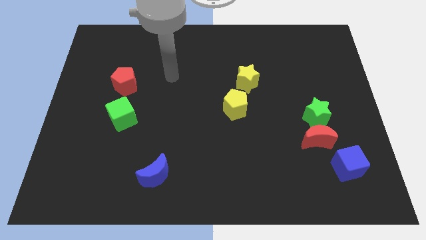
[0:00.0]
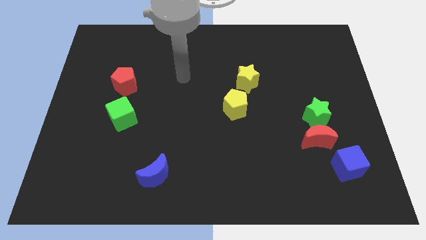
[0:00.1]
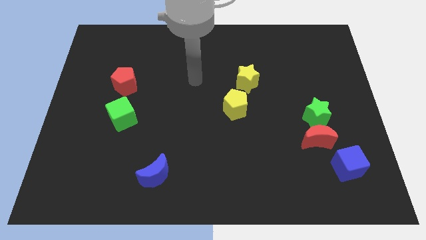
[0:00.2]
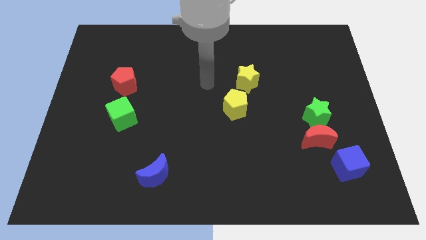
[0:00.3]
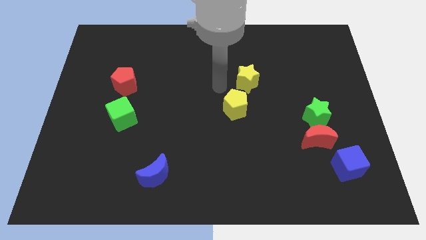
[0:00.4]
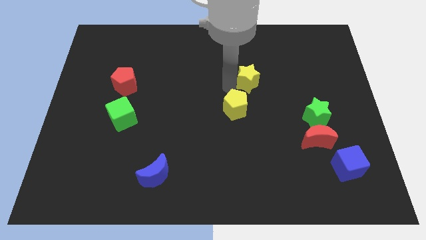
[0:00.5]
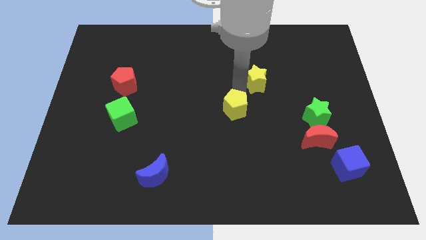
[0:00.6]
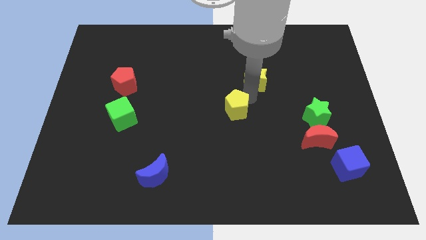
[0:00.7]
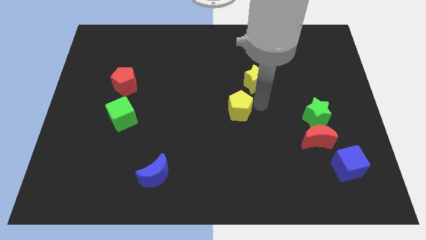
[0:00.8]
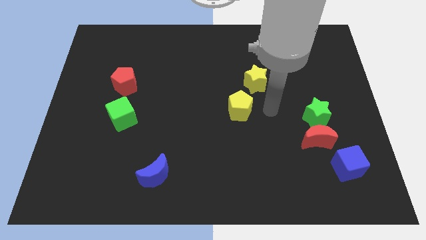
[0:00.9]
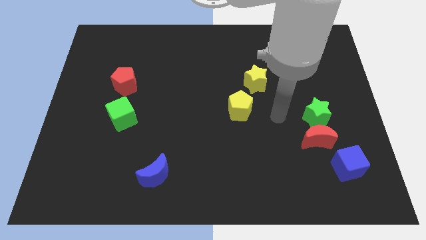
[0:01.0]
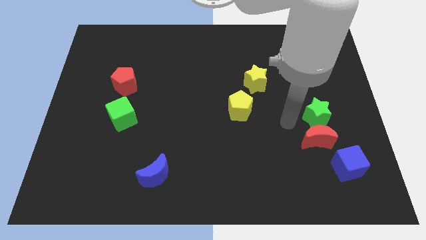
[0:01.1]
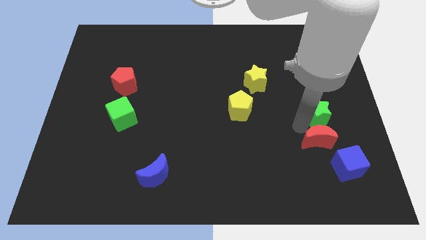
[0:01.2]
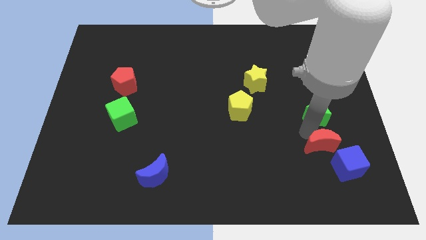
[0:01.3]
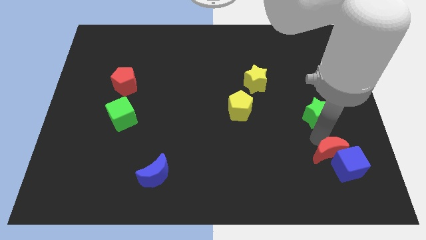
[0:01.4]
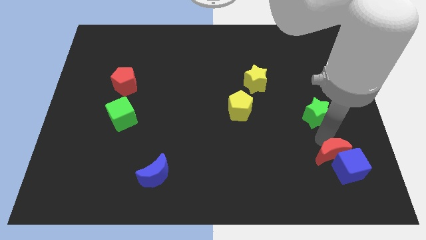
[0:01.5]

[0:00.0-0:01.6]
move the green star away from the red moon

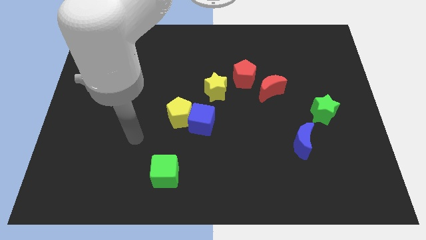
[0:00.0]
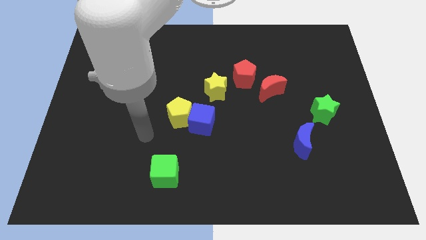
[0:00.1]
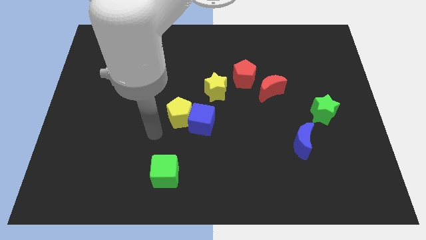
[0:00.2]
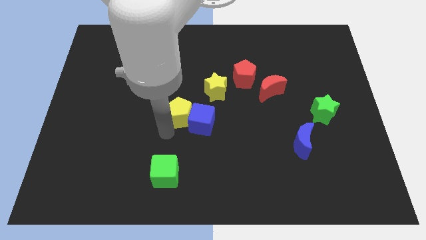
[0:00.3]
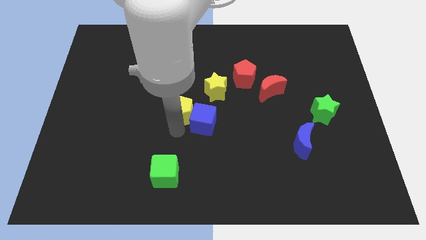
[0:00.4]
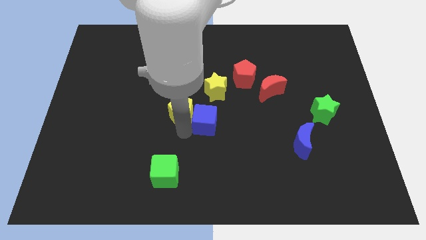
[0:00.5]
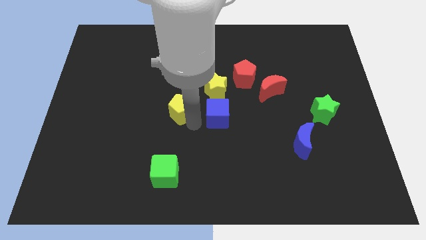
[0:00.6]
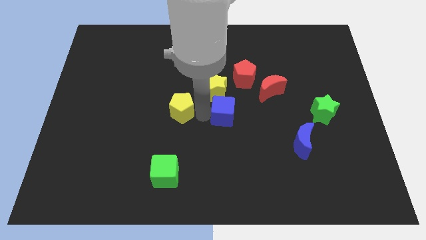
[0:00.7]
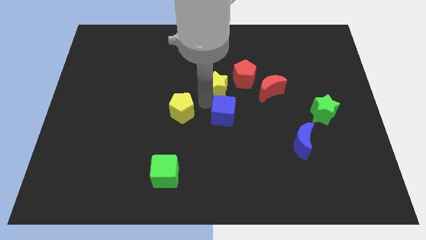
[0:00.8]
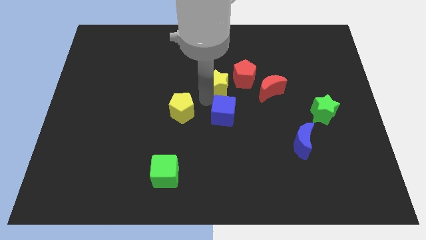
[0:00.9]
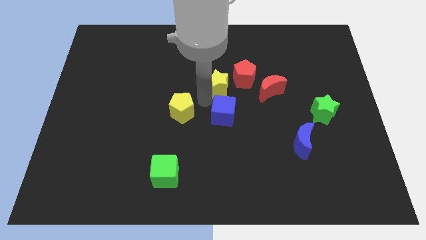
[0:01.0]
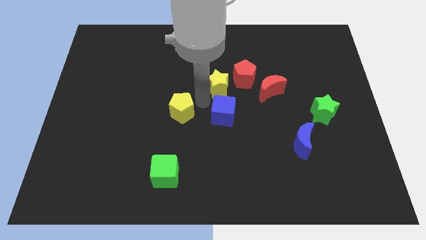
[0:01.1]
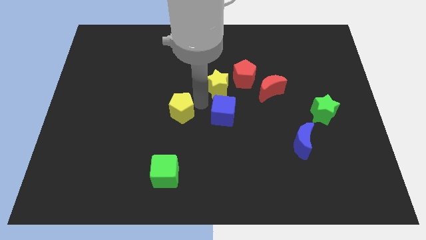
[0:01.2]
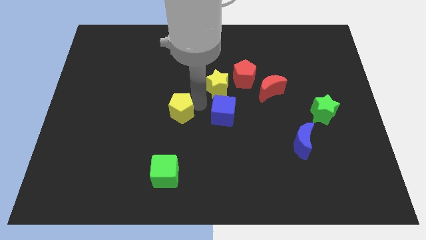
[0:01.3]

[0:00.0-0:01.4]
separate the yellow pentagon from the blue cube

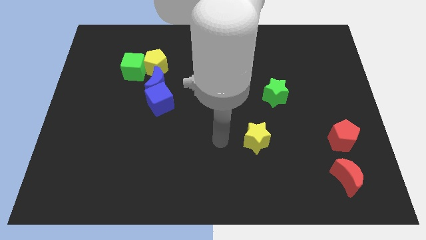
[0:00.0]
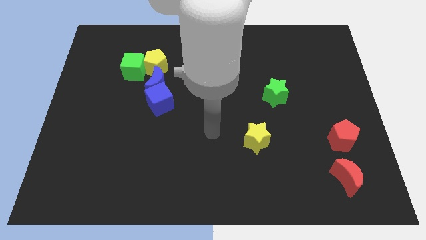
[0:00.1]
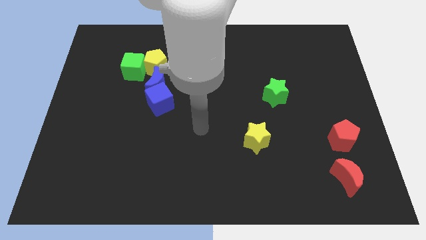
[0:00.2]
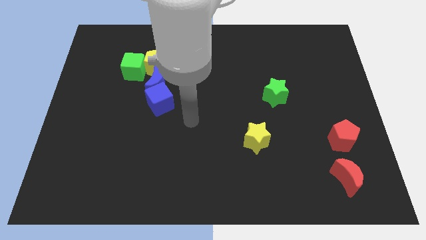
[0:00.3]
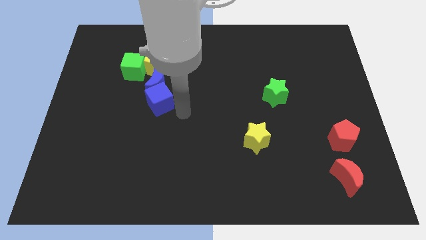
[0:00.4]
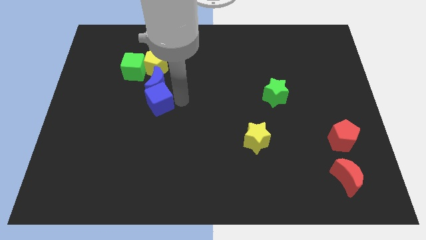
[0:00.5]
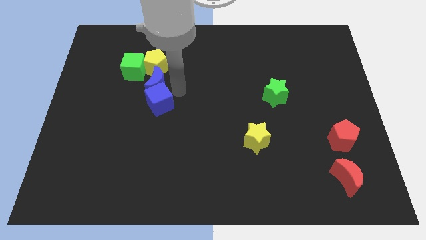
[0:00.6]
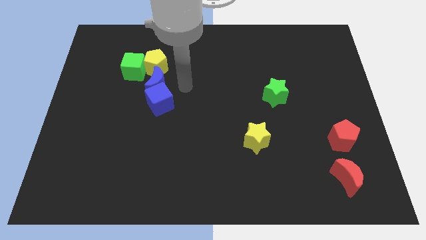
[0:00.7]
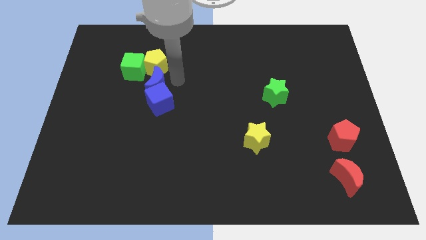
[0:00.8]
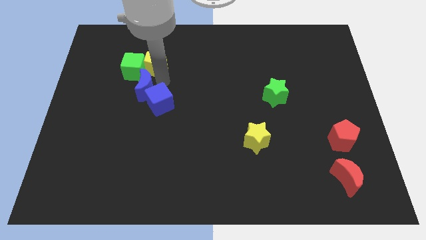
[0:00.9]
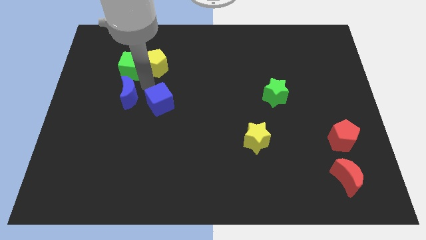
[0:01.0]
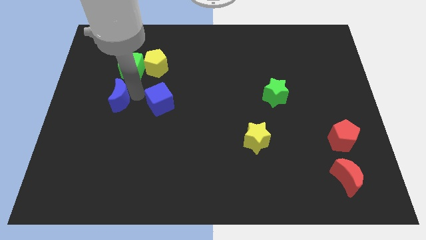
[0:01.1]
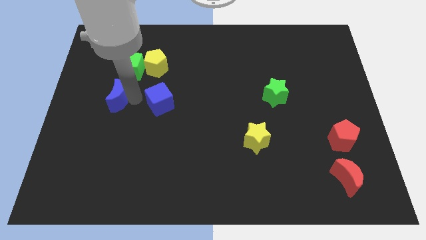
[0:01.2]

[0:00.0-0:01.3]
pull the blue cube apart from the blue moon

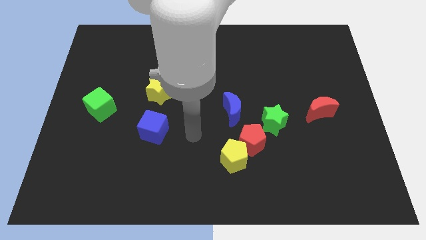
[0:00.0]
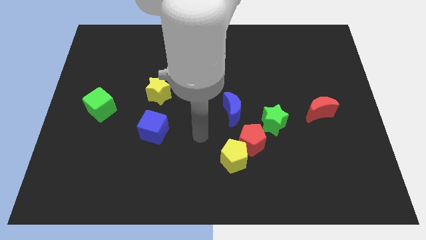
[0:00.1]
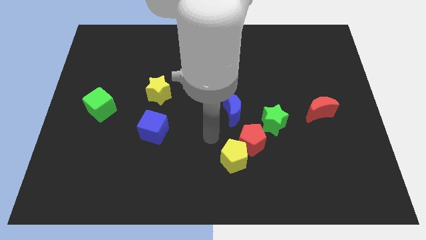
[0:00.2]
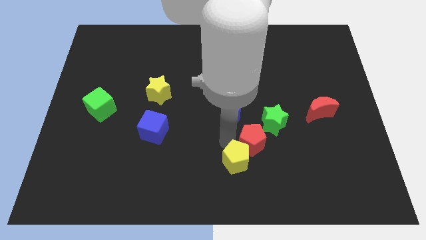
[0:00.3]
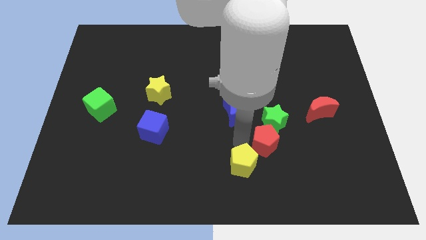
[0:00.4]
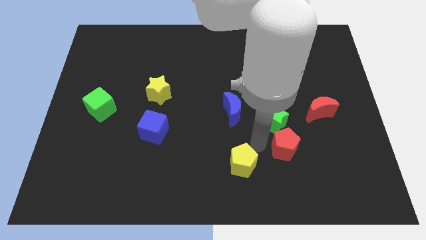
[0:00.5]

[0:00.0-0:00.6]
move the yellow pentagon away from the red pentagon

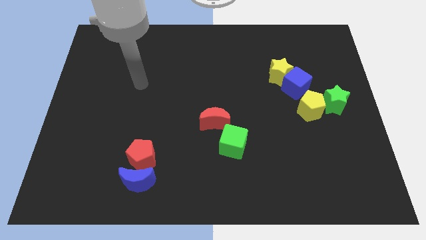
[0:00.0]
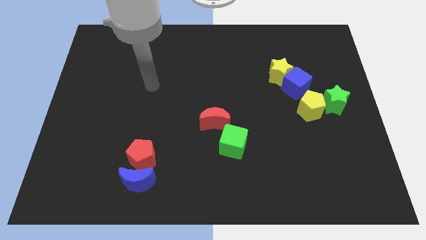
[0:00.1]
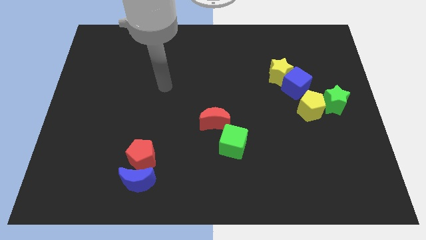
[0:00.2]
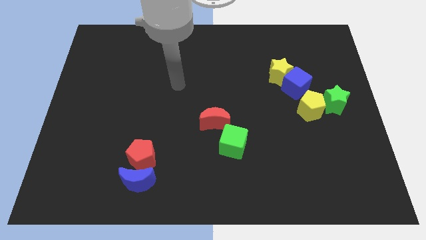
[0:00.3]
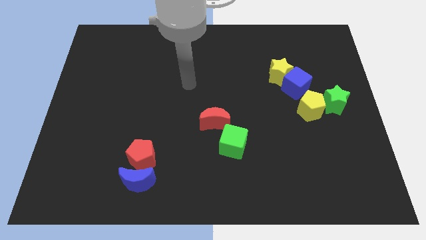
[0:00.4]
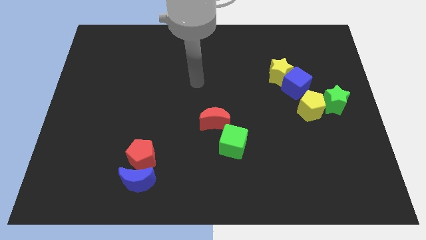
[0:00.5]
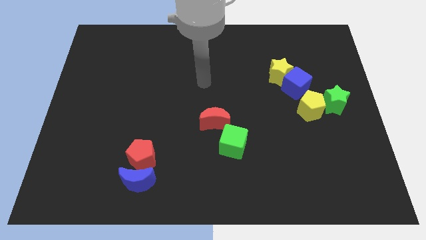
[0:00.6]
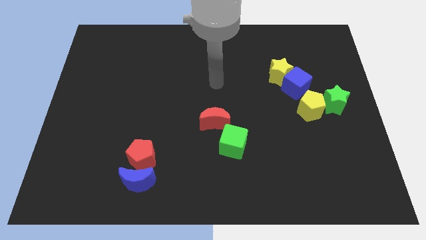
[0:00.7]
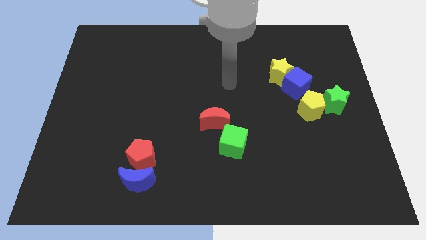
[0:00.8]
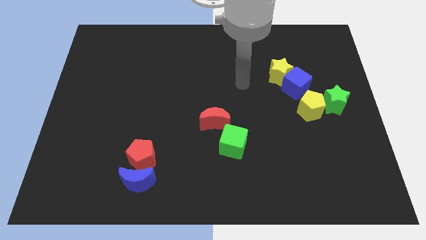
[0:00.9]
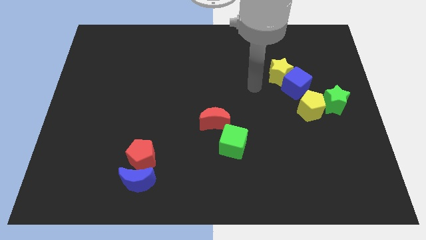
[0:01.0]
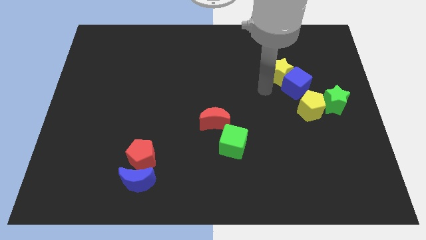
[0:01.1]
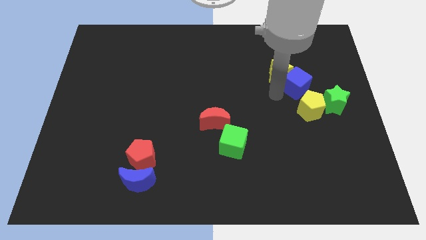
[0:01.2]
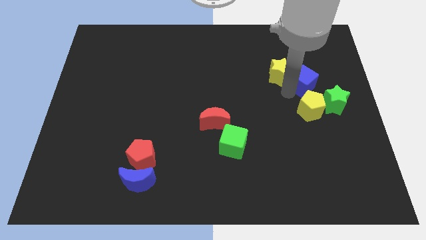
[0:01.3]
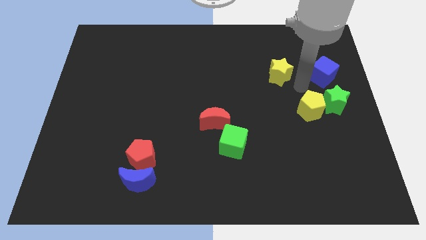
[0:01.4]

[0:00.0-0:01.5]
move the yellow star away from the blue cube

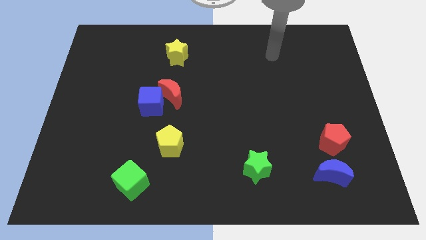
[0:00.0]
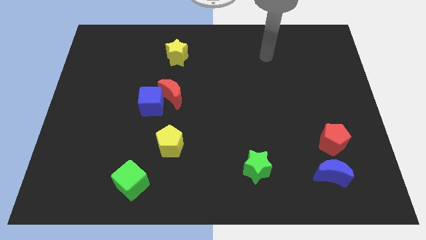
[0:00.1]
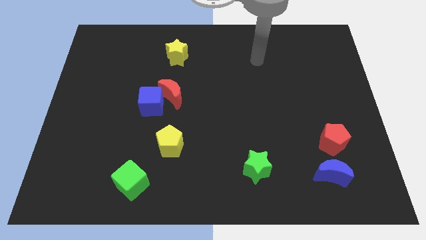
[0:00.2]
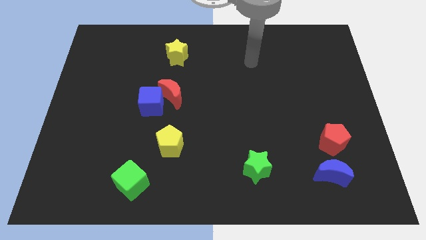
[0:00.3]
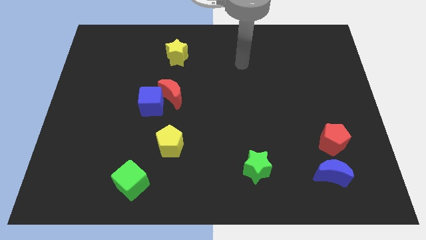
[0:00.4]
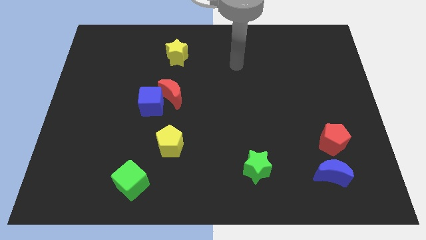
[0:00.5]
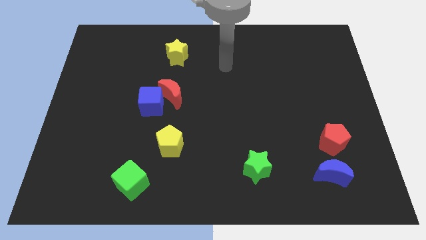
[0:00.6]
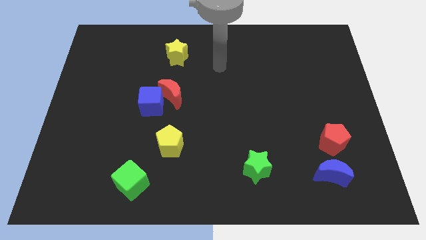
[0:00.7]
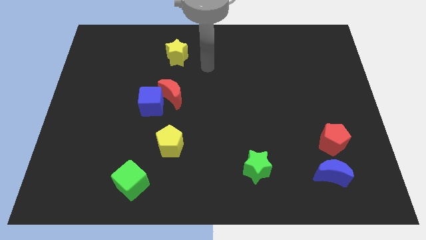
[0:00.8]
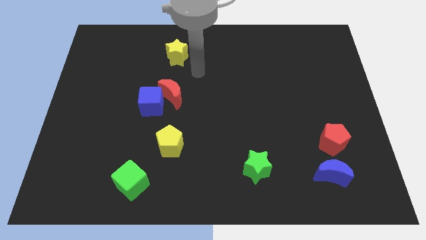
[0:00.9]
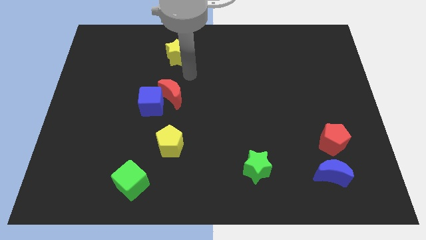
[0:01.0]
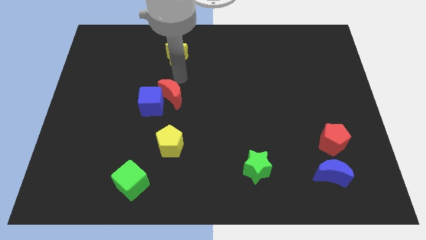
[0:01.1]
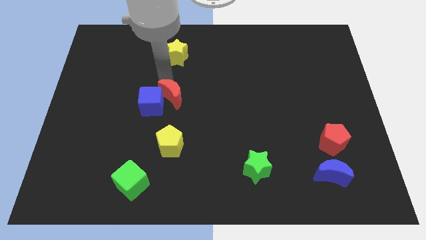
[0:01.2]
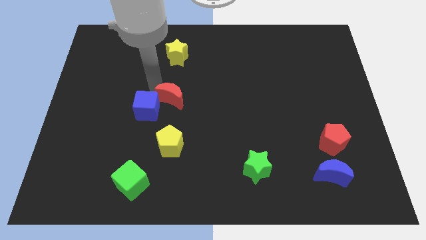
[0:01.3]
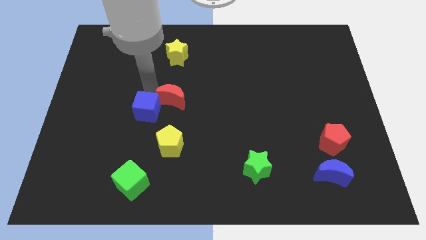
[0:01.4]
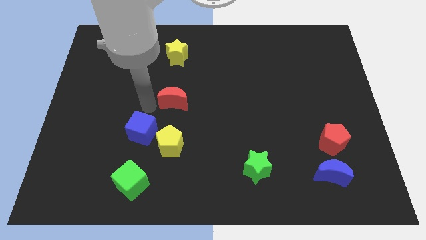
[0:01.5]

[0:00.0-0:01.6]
move the red moon away from the blue cube

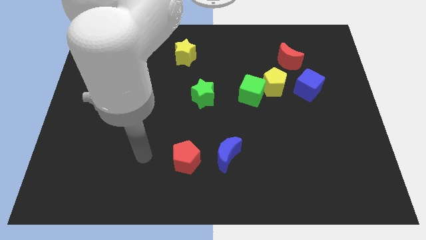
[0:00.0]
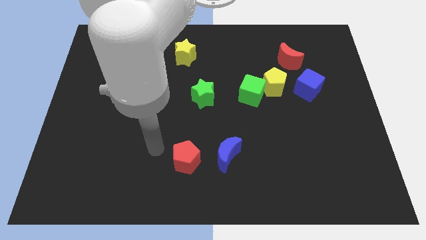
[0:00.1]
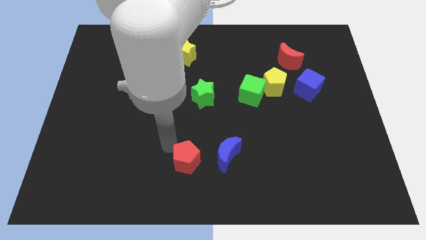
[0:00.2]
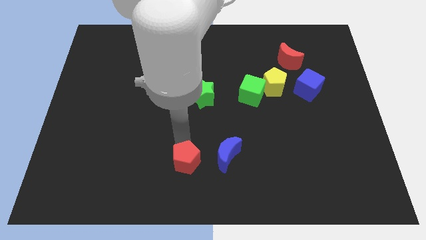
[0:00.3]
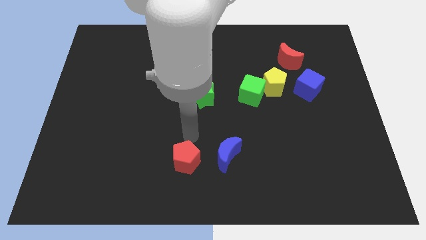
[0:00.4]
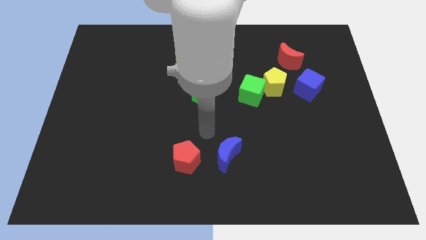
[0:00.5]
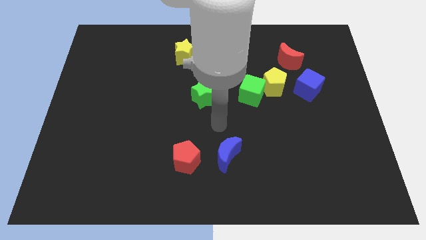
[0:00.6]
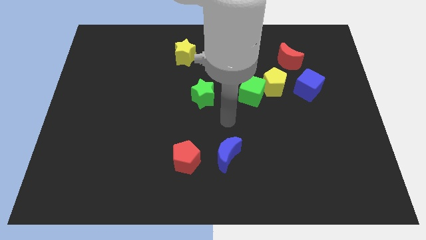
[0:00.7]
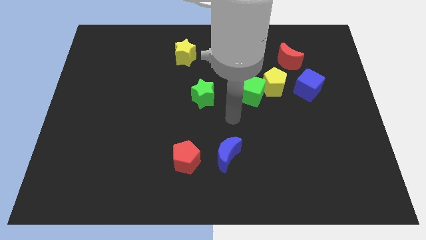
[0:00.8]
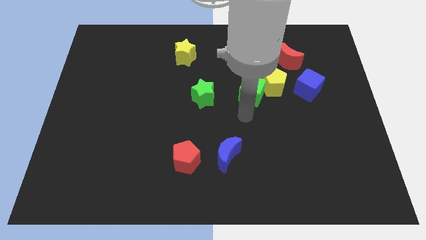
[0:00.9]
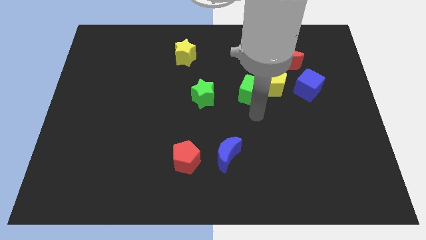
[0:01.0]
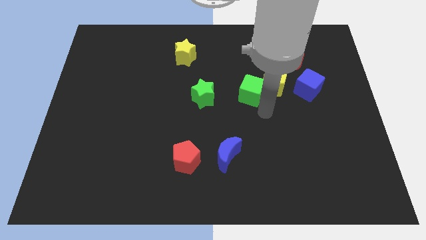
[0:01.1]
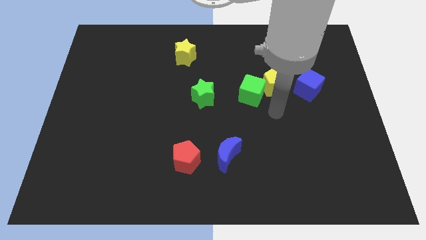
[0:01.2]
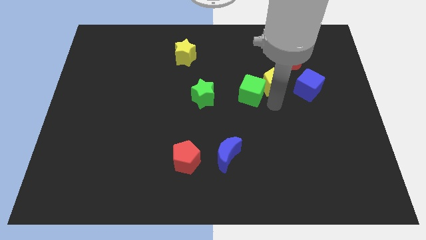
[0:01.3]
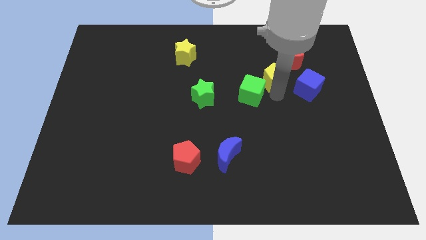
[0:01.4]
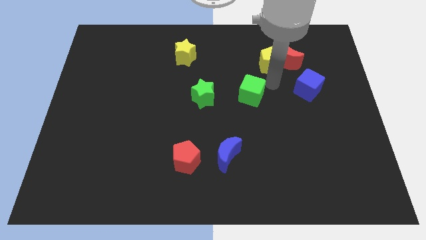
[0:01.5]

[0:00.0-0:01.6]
move the green cube away from the yellow pentagon
